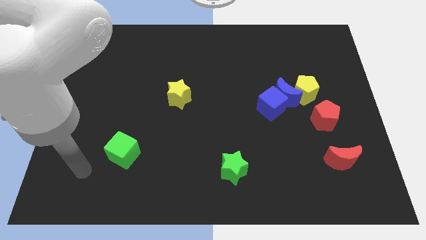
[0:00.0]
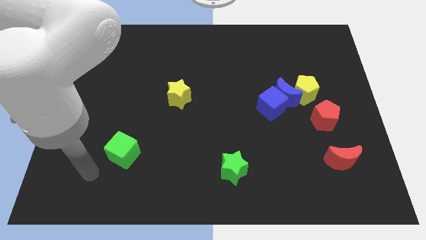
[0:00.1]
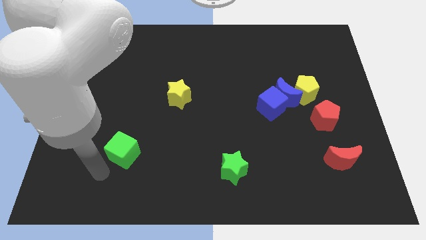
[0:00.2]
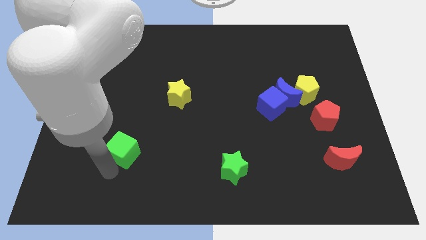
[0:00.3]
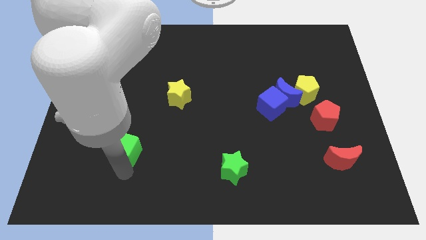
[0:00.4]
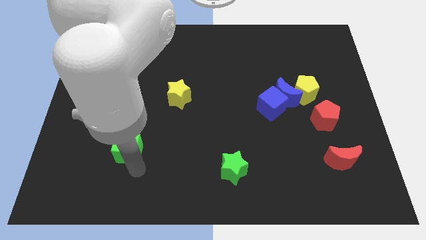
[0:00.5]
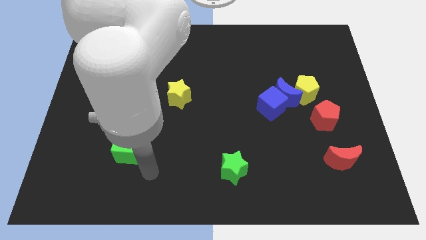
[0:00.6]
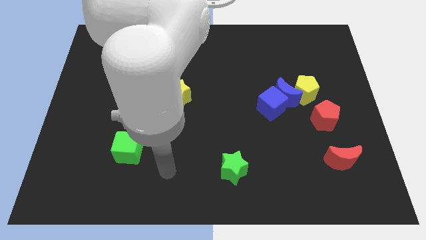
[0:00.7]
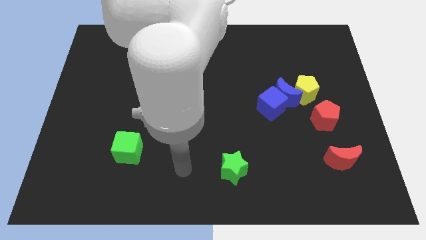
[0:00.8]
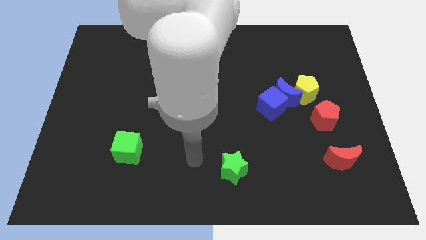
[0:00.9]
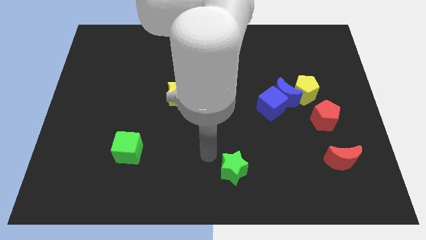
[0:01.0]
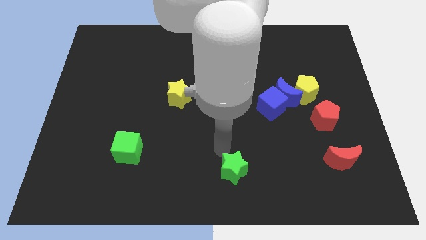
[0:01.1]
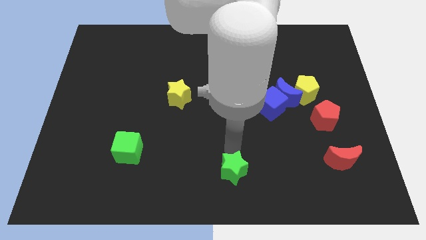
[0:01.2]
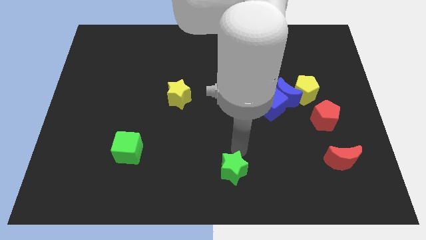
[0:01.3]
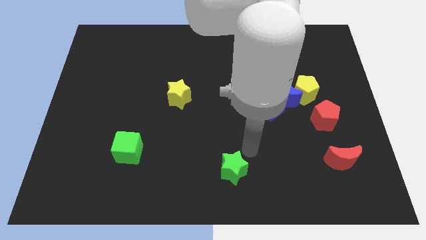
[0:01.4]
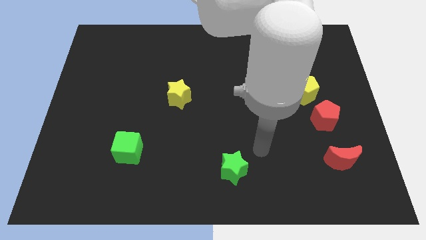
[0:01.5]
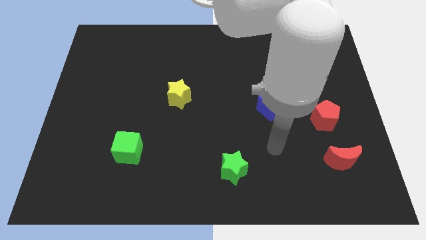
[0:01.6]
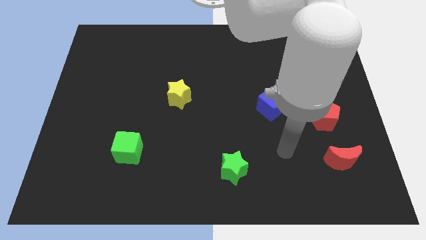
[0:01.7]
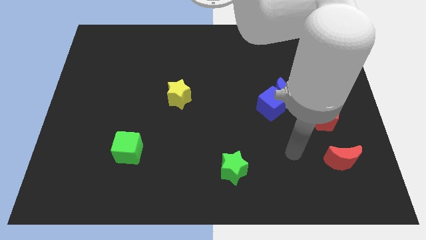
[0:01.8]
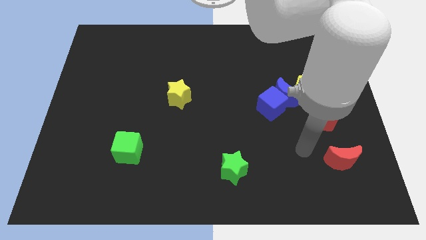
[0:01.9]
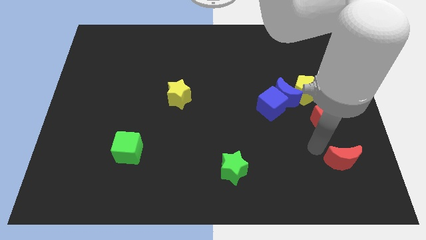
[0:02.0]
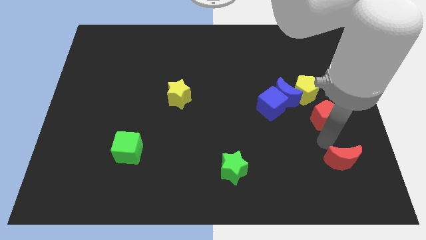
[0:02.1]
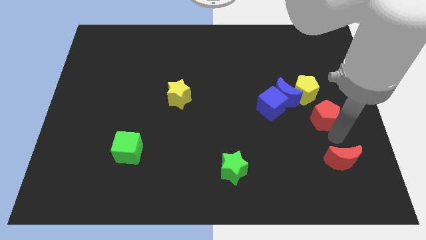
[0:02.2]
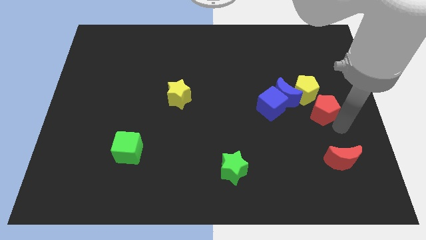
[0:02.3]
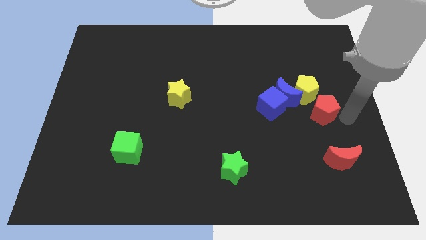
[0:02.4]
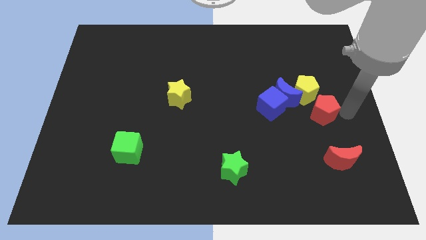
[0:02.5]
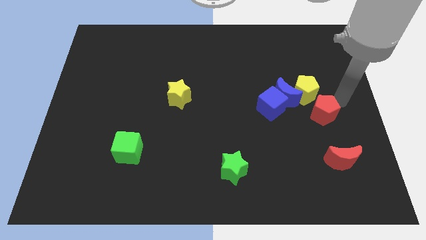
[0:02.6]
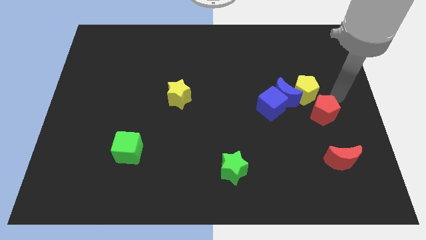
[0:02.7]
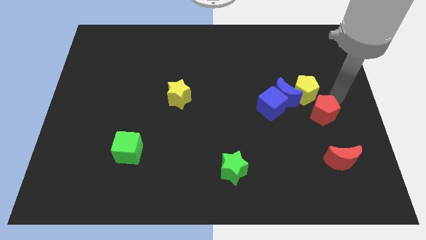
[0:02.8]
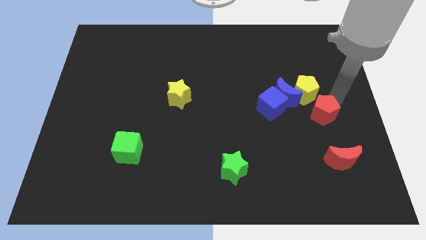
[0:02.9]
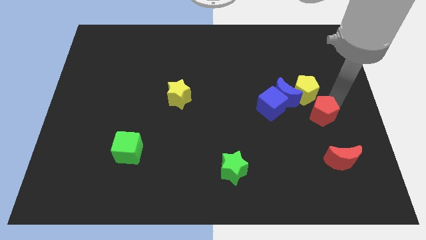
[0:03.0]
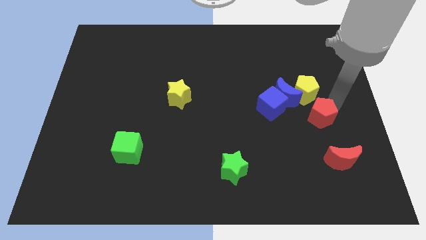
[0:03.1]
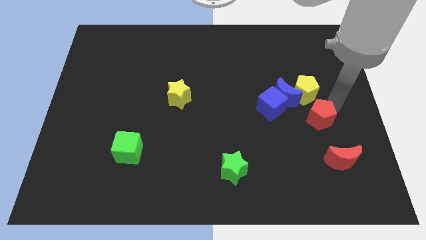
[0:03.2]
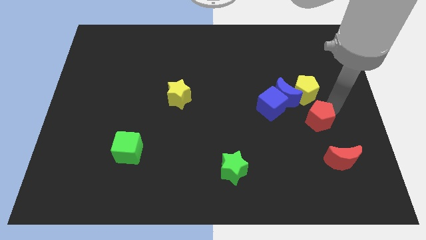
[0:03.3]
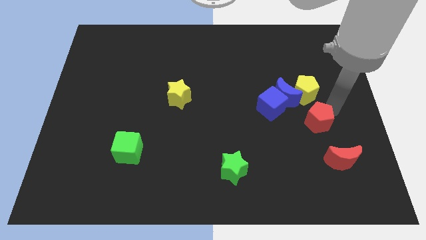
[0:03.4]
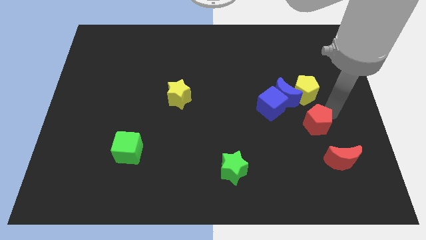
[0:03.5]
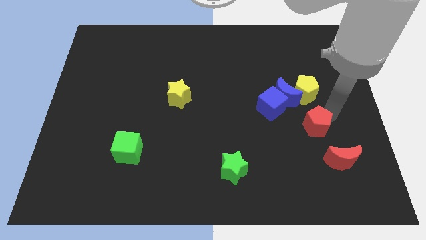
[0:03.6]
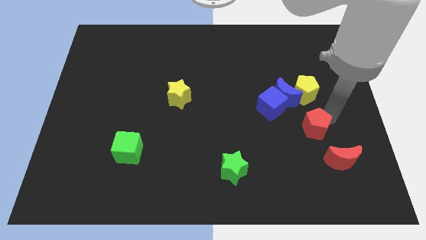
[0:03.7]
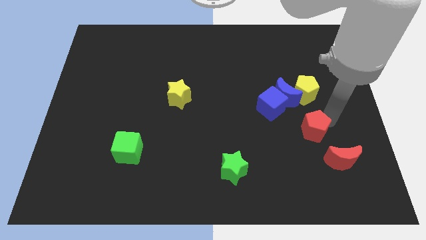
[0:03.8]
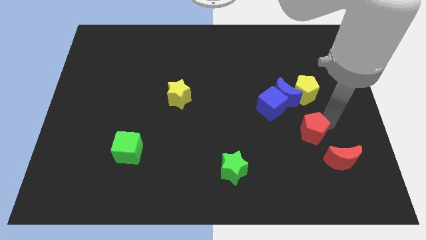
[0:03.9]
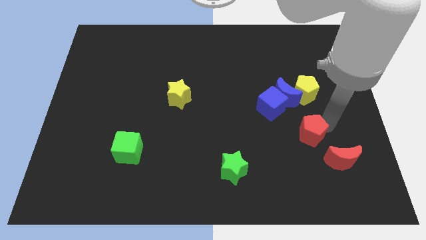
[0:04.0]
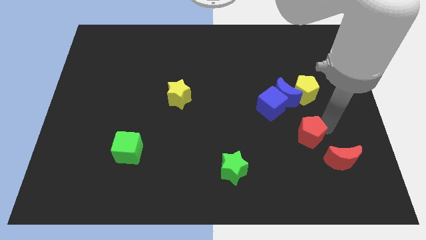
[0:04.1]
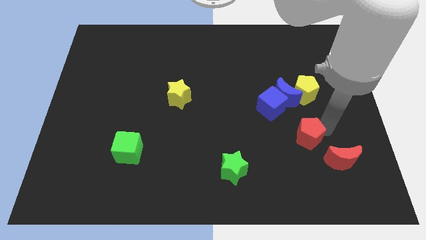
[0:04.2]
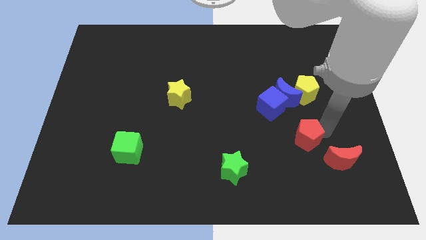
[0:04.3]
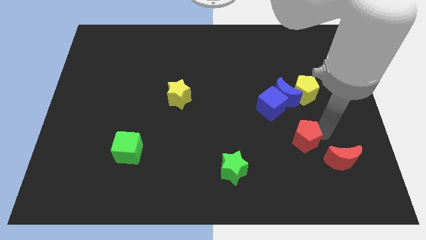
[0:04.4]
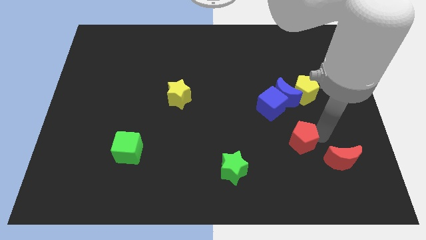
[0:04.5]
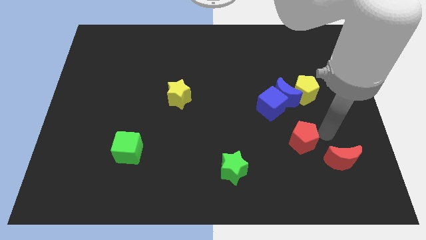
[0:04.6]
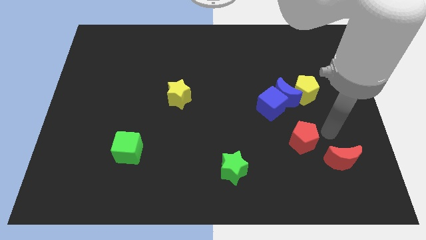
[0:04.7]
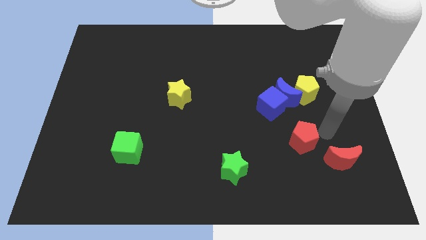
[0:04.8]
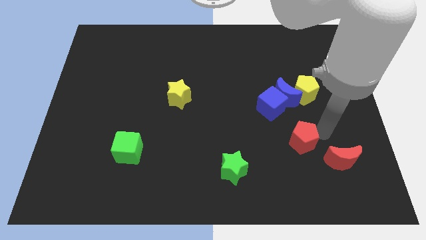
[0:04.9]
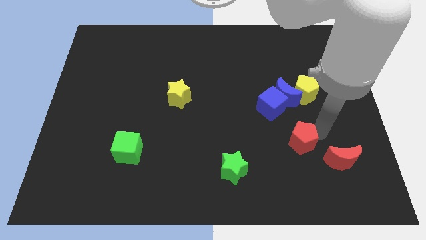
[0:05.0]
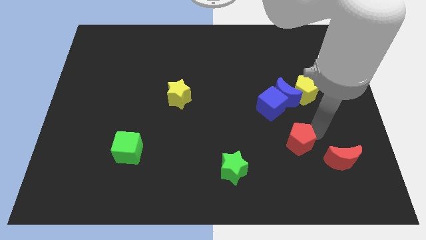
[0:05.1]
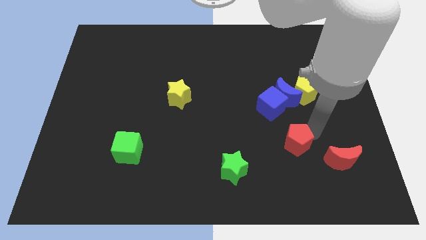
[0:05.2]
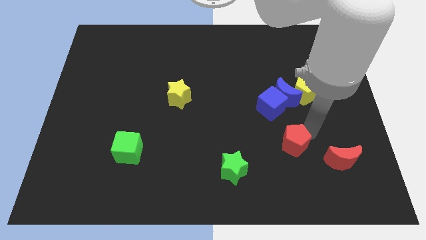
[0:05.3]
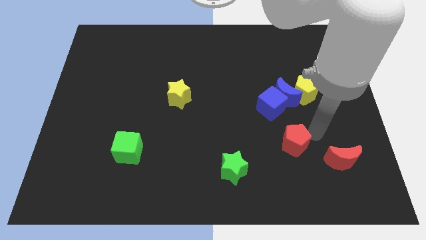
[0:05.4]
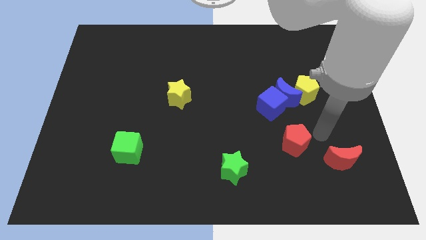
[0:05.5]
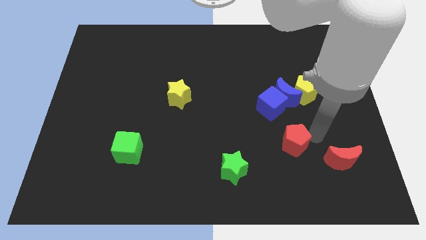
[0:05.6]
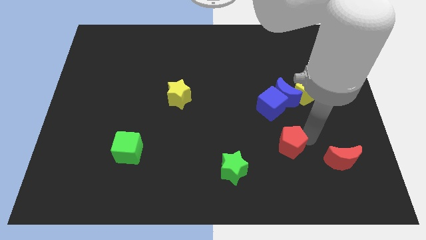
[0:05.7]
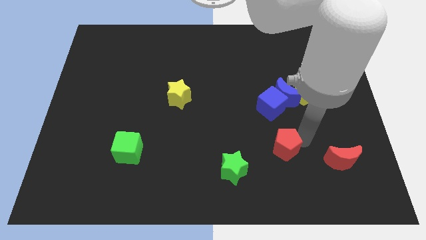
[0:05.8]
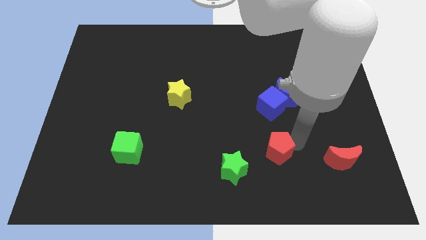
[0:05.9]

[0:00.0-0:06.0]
move the red pentagon diagonally up and to the right of the green star

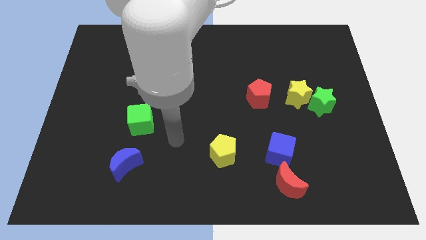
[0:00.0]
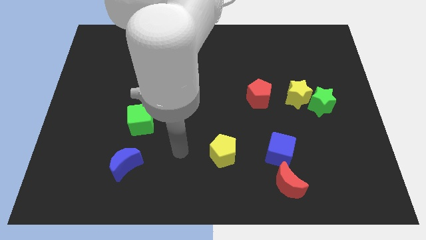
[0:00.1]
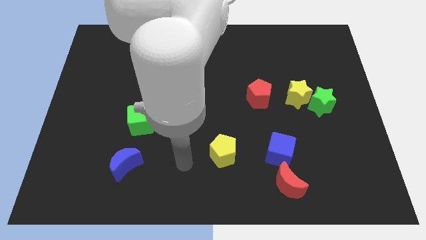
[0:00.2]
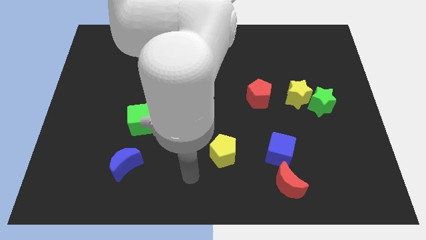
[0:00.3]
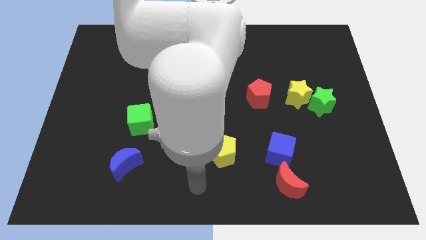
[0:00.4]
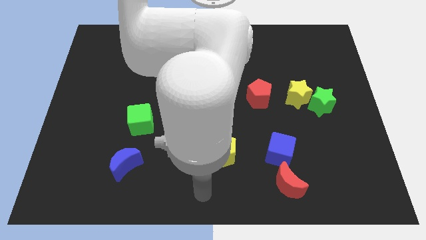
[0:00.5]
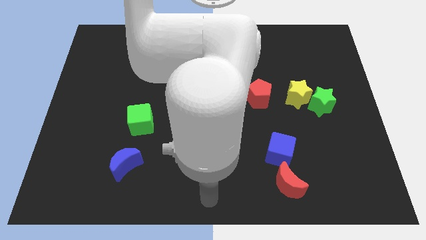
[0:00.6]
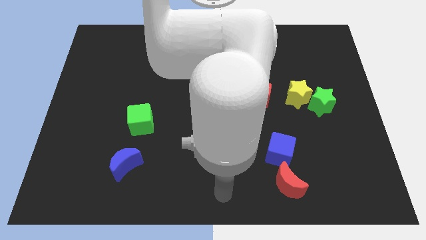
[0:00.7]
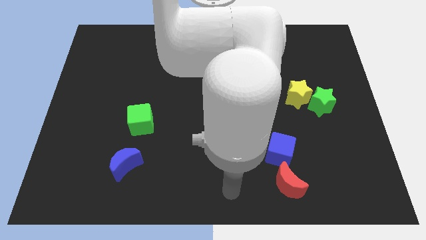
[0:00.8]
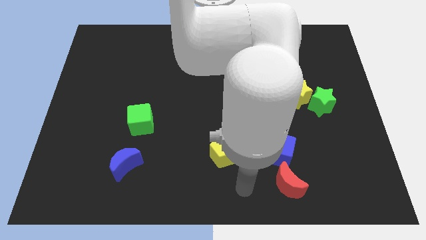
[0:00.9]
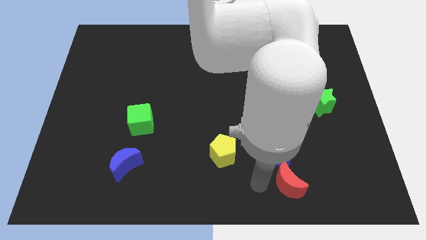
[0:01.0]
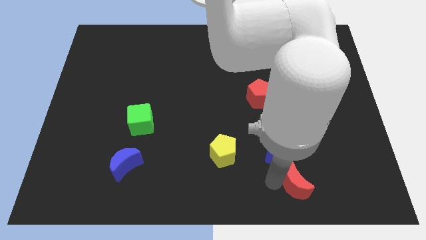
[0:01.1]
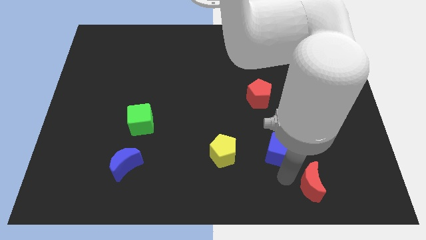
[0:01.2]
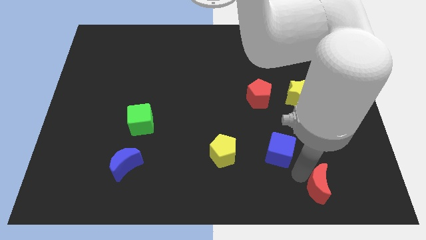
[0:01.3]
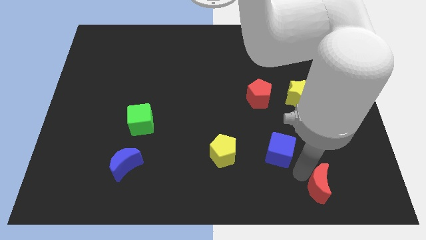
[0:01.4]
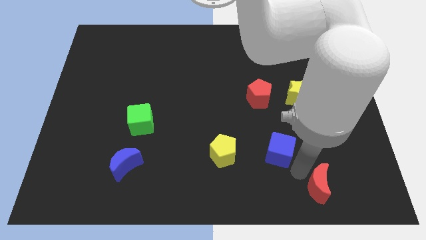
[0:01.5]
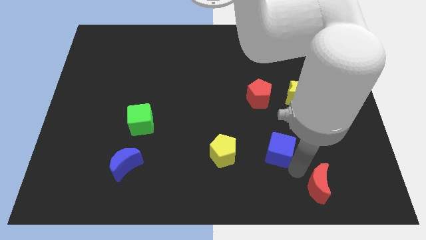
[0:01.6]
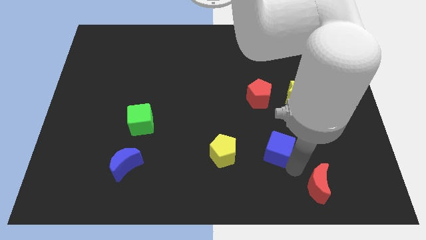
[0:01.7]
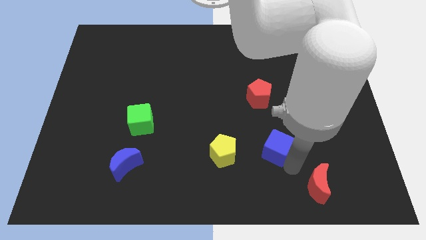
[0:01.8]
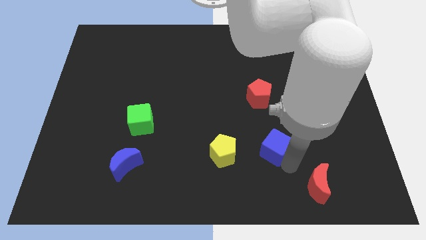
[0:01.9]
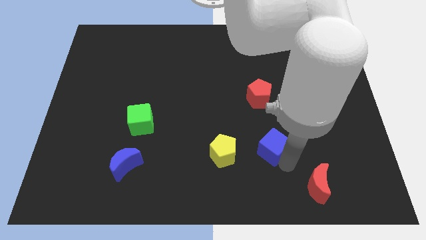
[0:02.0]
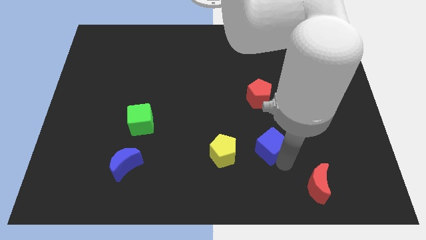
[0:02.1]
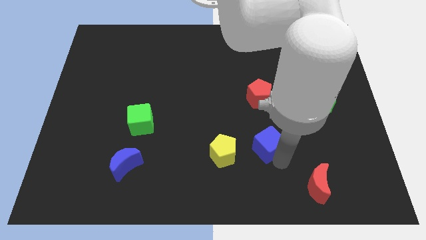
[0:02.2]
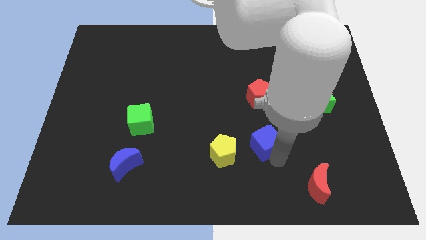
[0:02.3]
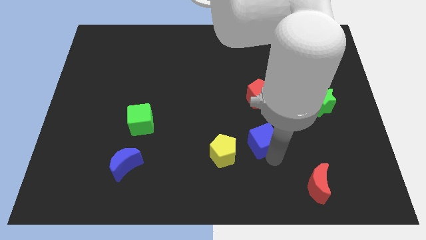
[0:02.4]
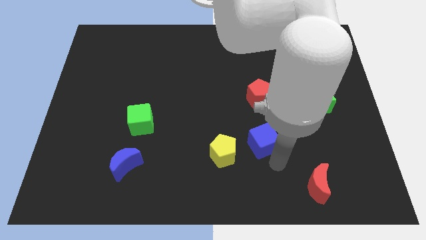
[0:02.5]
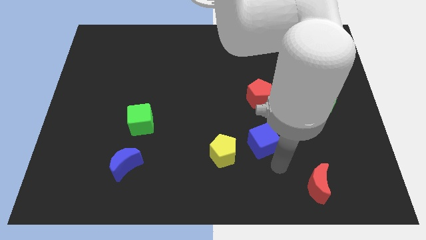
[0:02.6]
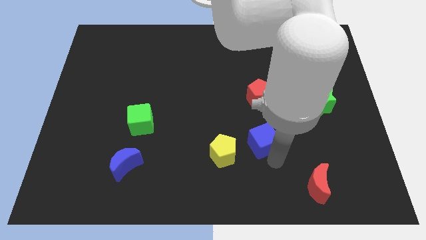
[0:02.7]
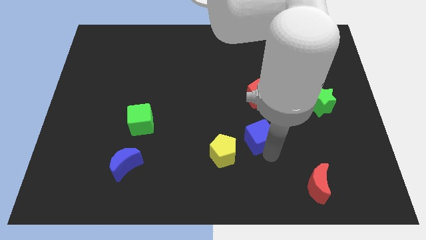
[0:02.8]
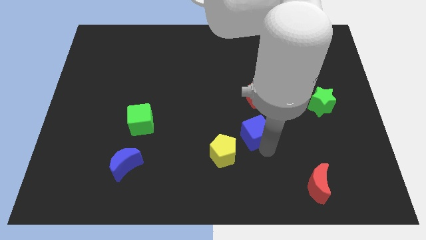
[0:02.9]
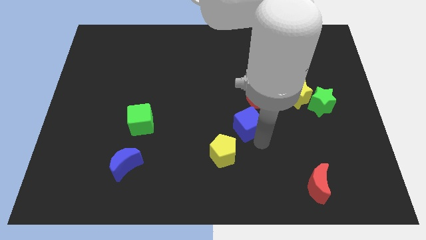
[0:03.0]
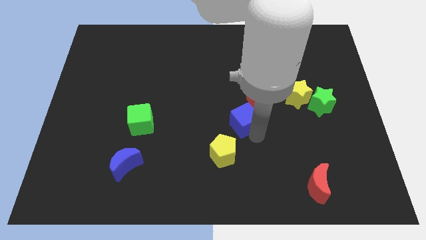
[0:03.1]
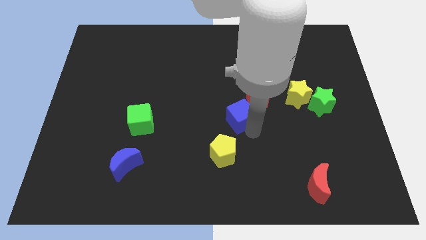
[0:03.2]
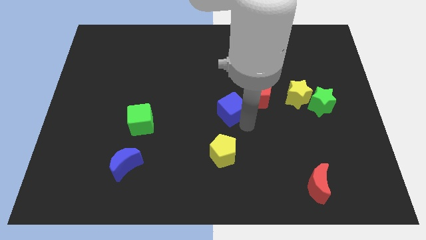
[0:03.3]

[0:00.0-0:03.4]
slide the blue cube left of the red pentagon
